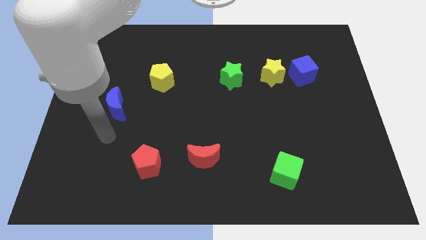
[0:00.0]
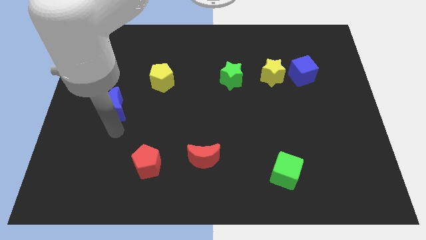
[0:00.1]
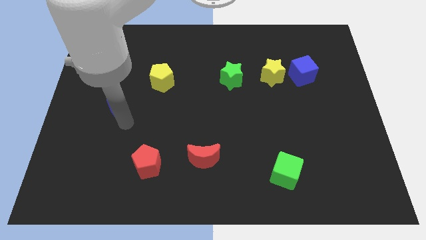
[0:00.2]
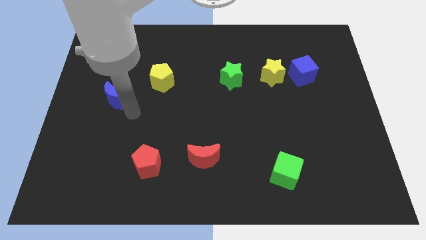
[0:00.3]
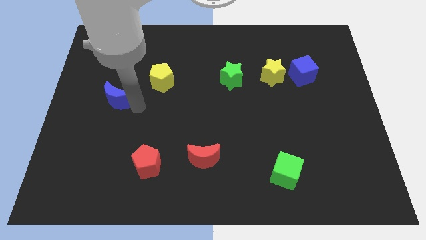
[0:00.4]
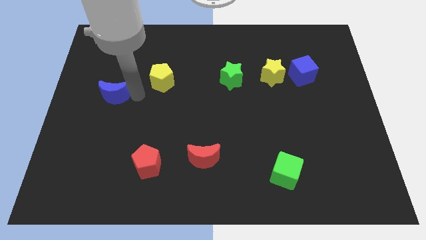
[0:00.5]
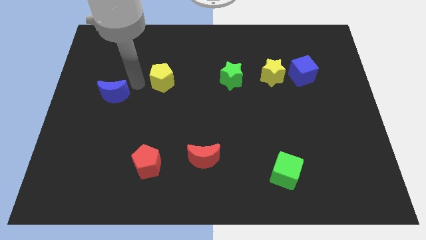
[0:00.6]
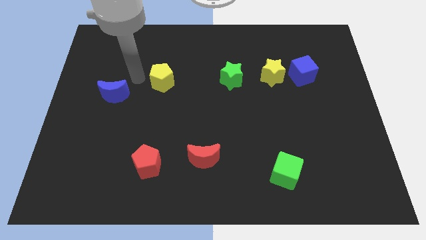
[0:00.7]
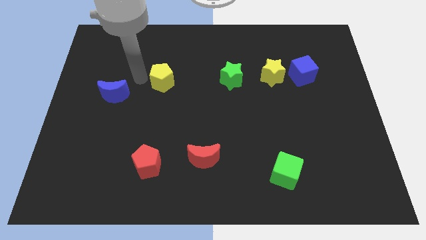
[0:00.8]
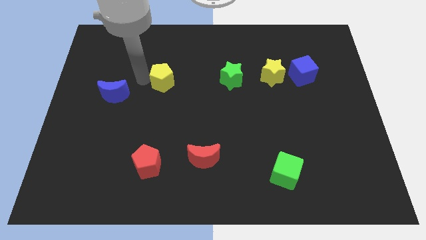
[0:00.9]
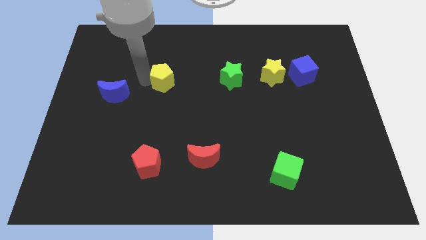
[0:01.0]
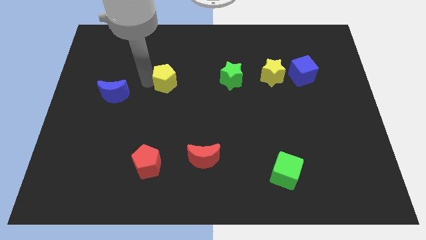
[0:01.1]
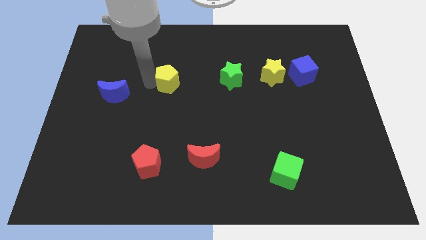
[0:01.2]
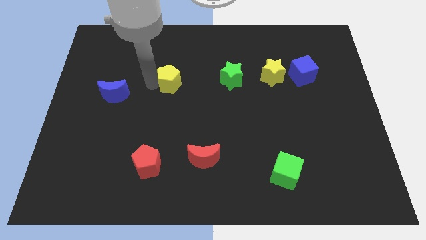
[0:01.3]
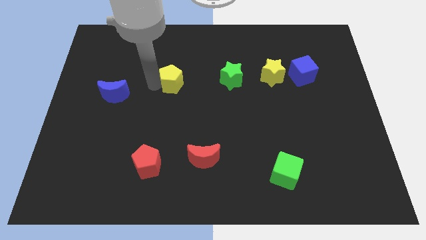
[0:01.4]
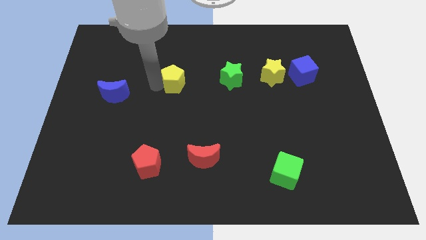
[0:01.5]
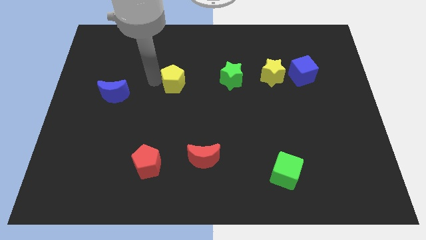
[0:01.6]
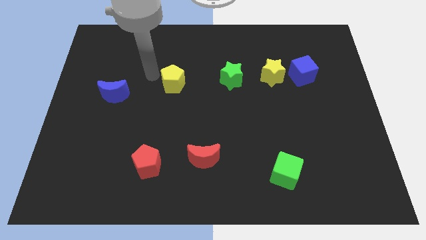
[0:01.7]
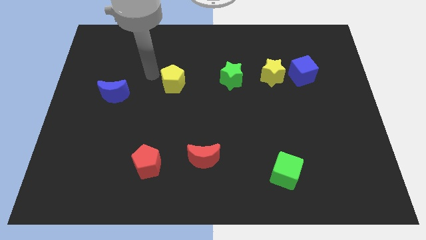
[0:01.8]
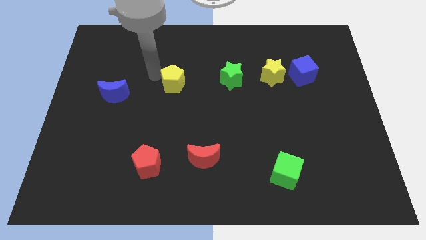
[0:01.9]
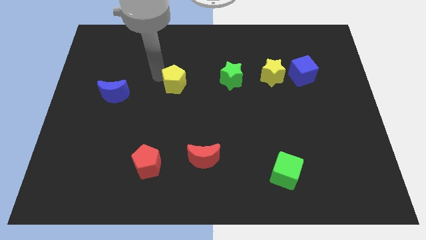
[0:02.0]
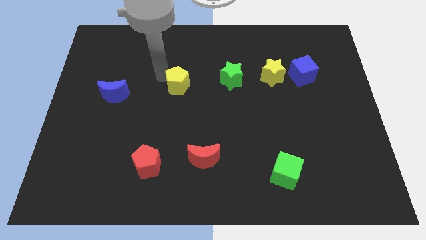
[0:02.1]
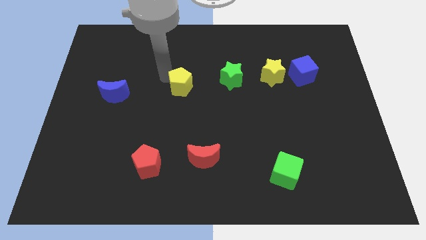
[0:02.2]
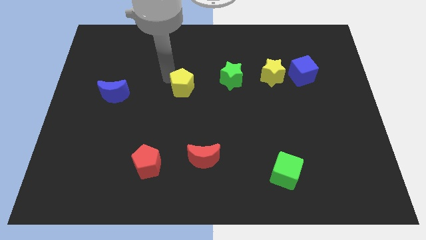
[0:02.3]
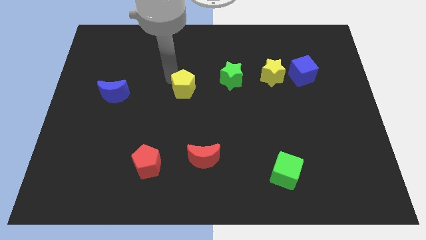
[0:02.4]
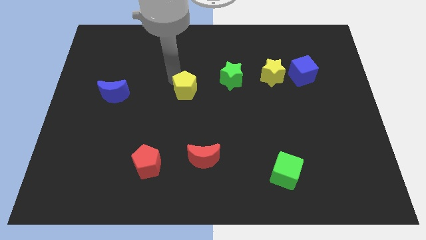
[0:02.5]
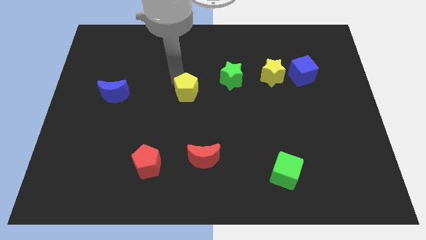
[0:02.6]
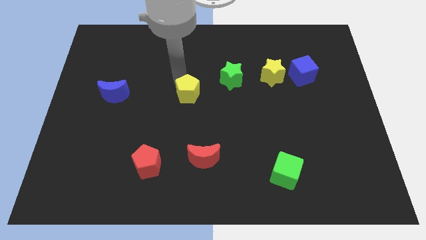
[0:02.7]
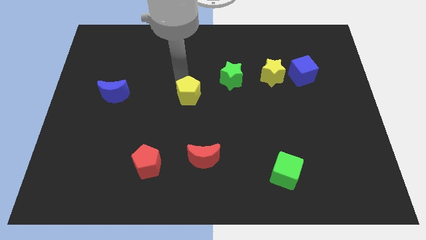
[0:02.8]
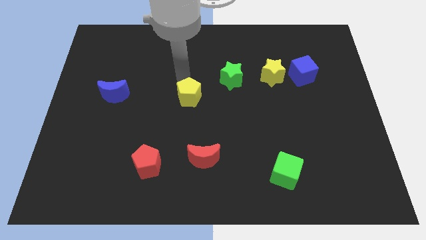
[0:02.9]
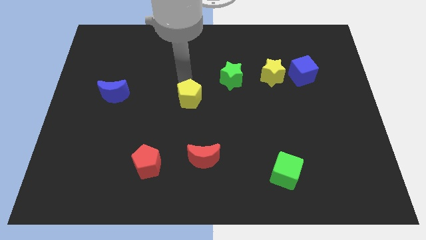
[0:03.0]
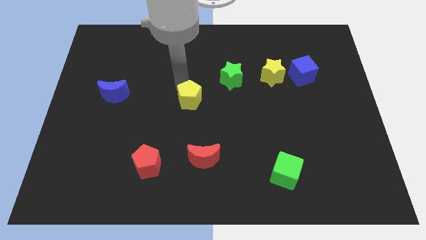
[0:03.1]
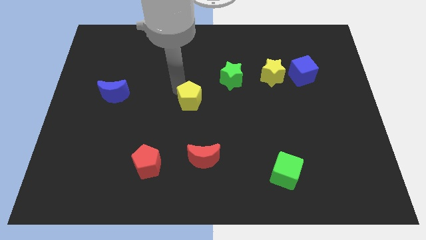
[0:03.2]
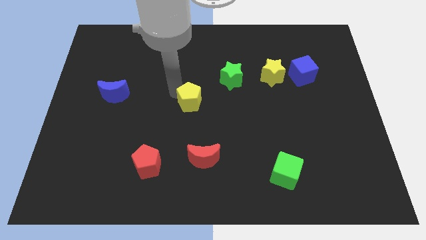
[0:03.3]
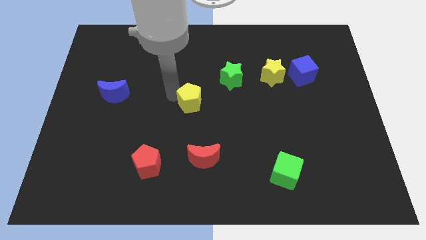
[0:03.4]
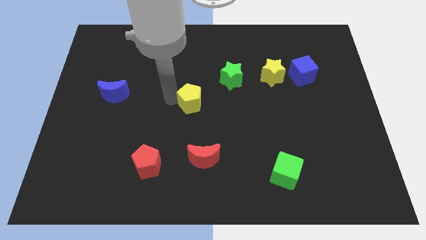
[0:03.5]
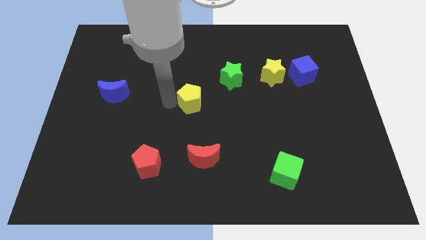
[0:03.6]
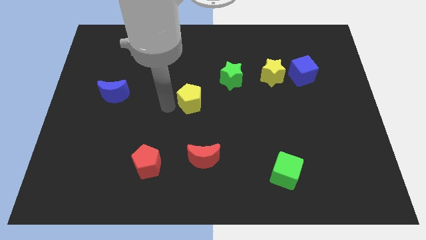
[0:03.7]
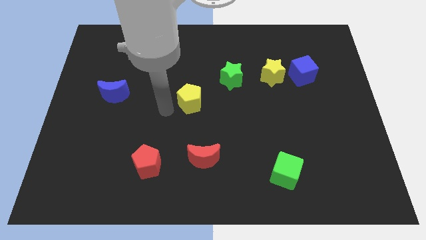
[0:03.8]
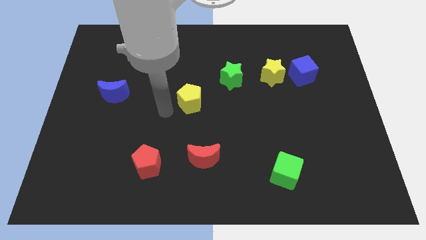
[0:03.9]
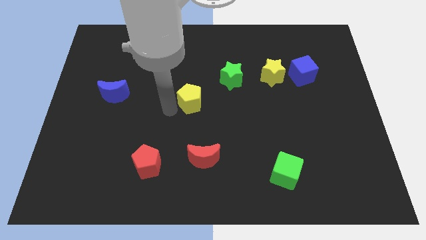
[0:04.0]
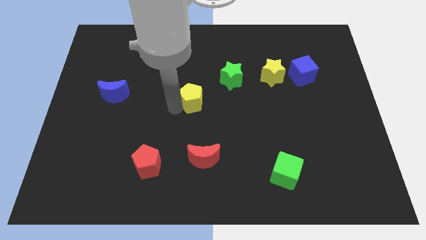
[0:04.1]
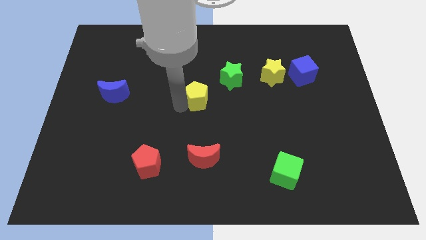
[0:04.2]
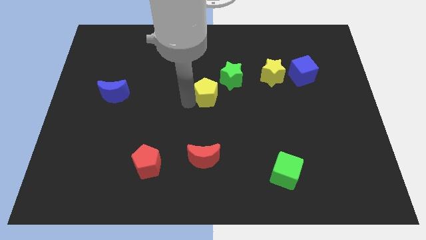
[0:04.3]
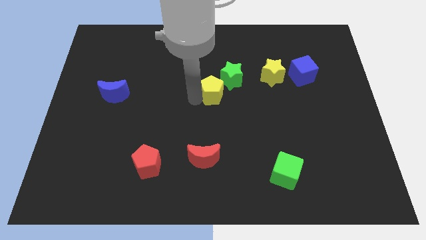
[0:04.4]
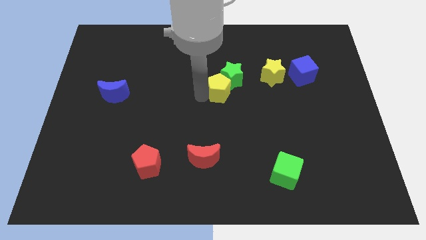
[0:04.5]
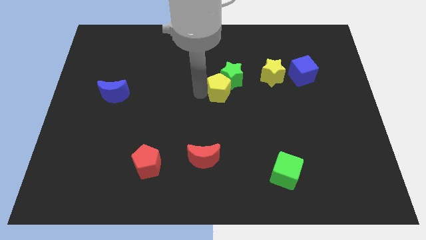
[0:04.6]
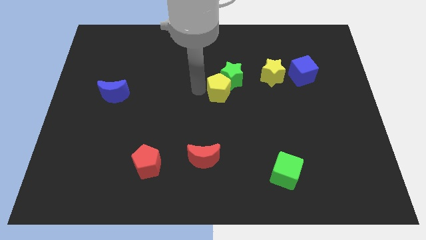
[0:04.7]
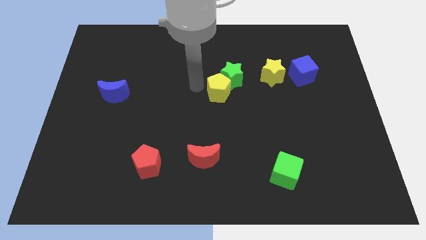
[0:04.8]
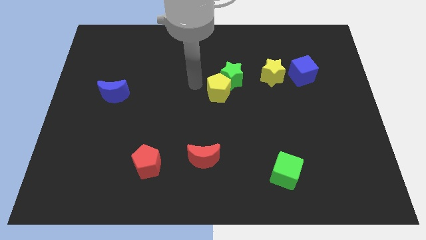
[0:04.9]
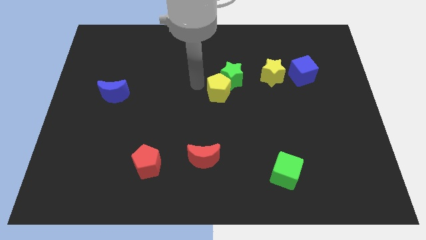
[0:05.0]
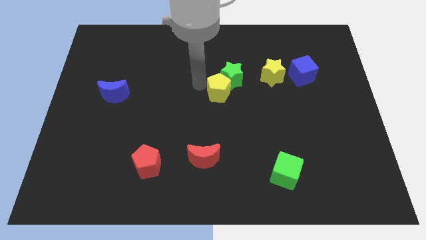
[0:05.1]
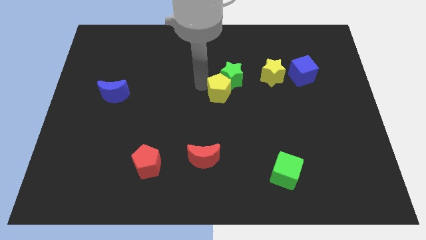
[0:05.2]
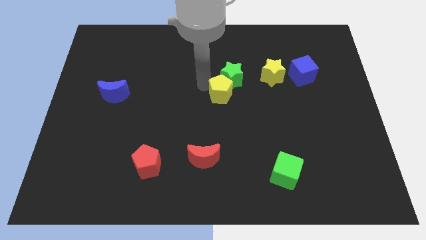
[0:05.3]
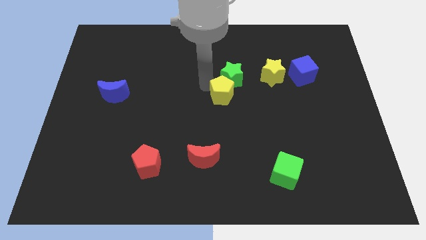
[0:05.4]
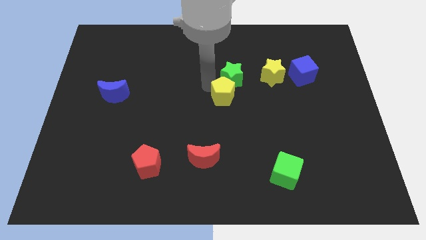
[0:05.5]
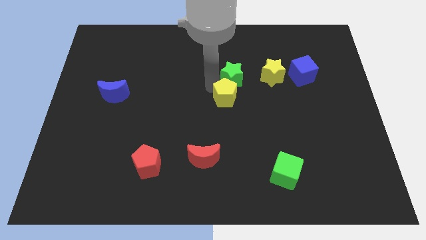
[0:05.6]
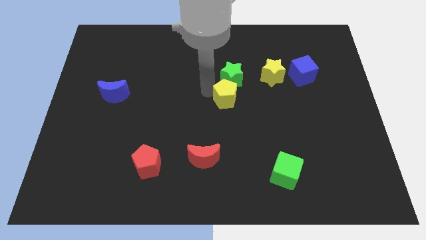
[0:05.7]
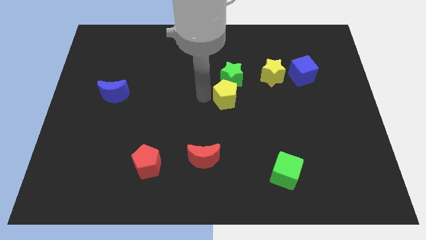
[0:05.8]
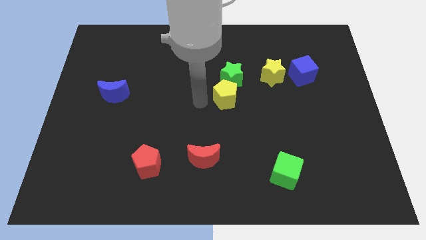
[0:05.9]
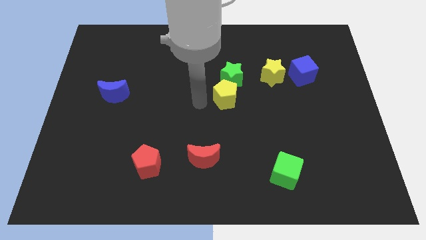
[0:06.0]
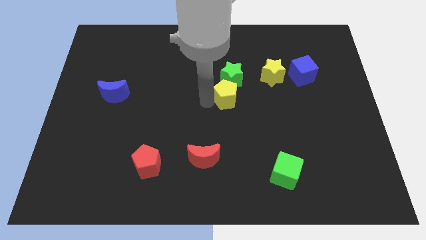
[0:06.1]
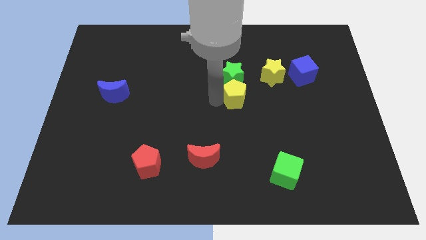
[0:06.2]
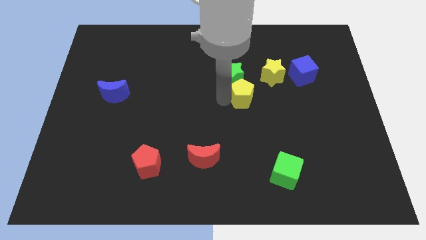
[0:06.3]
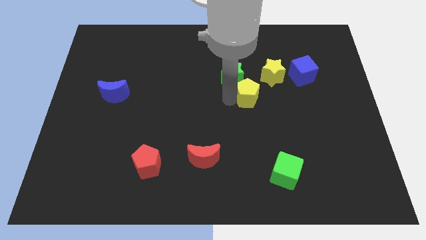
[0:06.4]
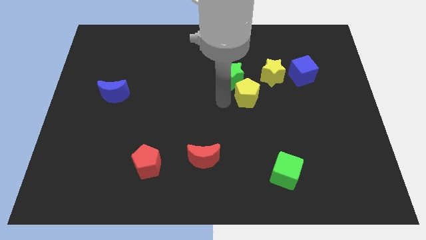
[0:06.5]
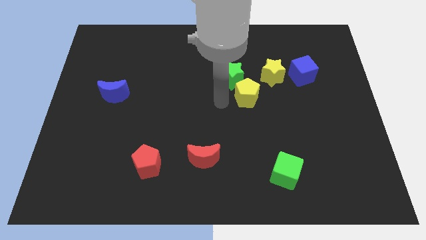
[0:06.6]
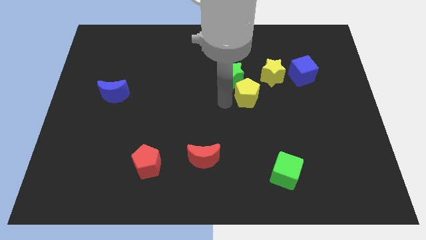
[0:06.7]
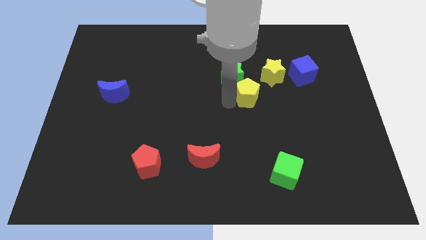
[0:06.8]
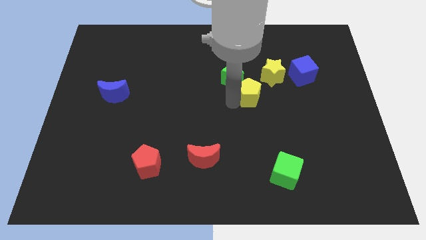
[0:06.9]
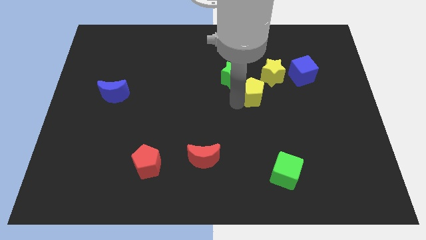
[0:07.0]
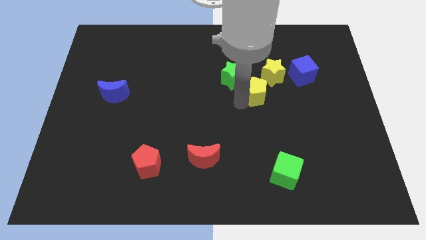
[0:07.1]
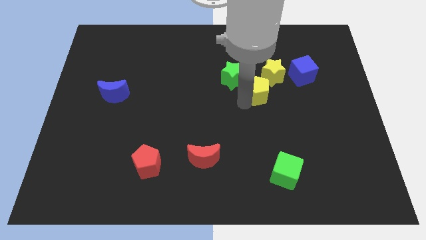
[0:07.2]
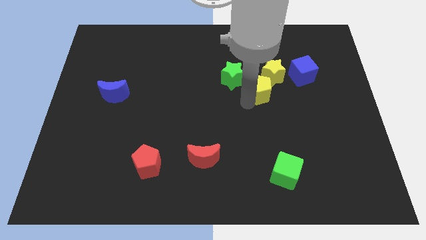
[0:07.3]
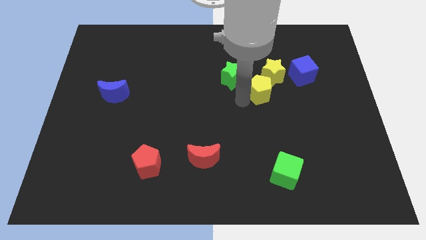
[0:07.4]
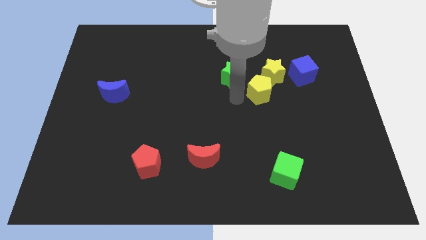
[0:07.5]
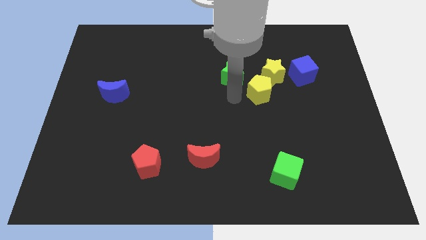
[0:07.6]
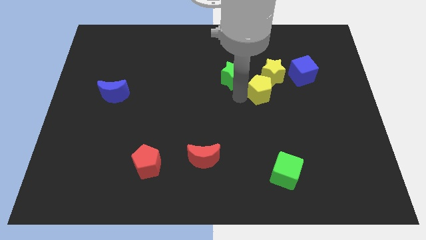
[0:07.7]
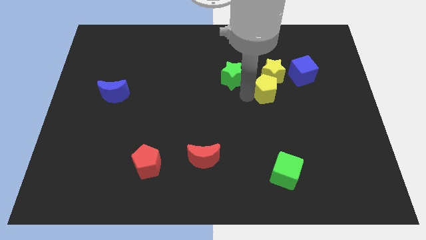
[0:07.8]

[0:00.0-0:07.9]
push the yellow pentagon diagonally down and to the left of the blue cube
